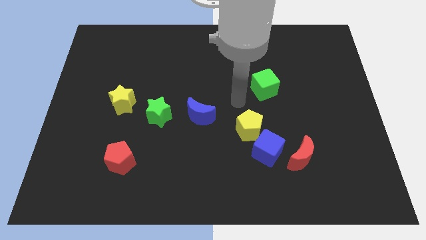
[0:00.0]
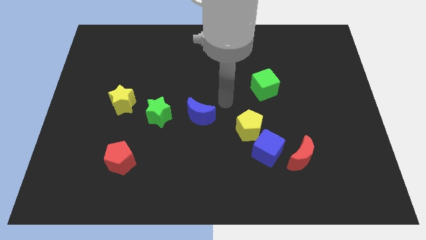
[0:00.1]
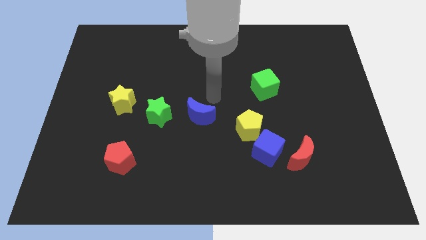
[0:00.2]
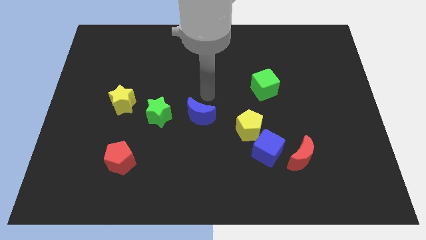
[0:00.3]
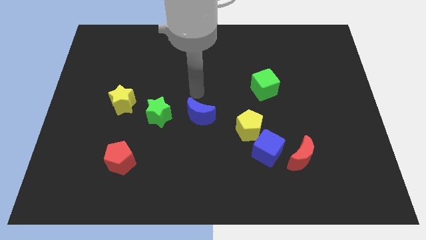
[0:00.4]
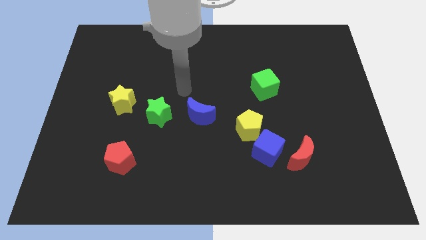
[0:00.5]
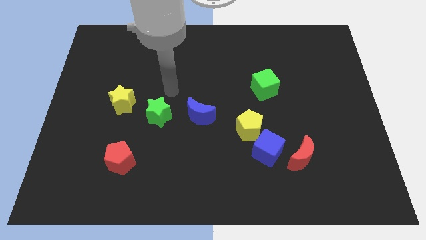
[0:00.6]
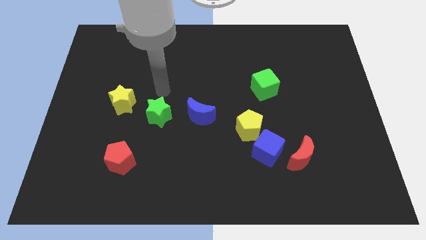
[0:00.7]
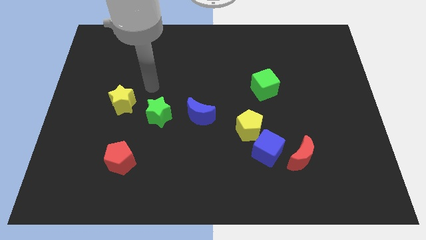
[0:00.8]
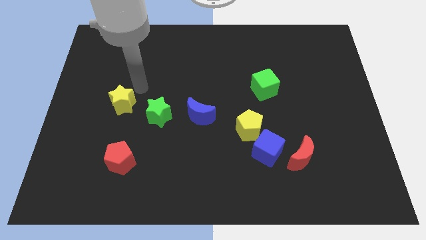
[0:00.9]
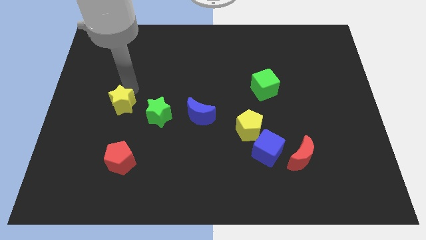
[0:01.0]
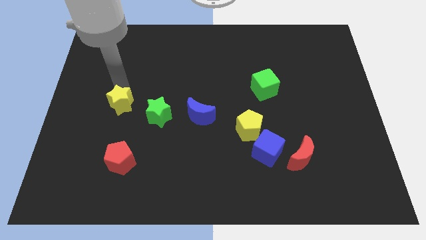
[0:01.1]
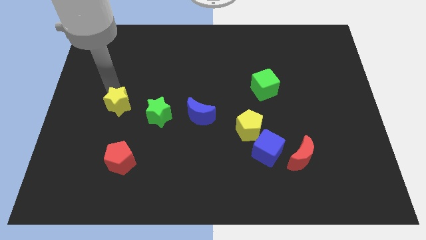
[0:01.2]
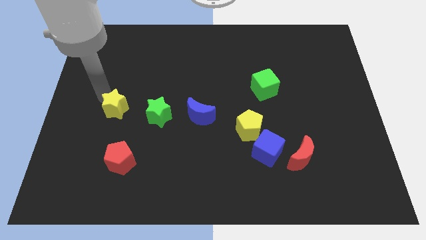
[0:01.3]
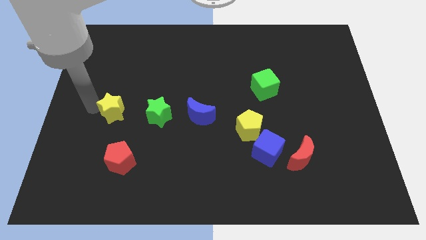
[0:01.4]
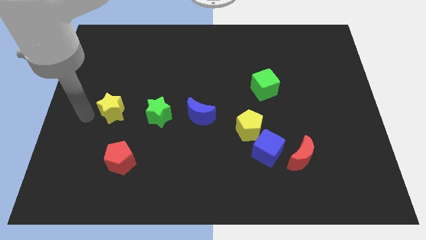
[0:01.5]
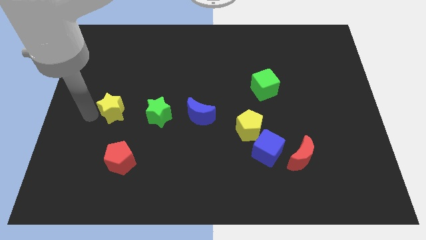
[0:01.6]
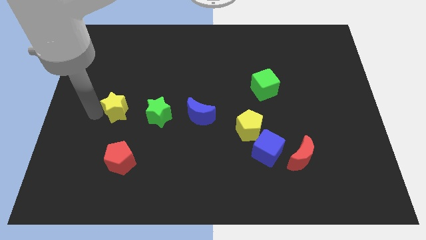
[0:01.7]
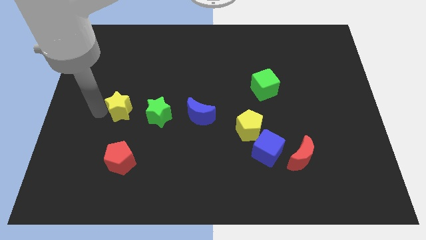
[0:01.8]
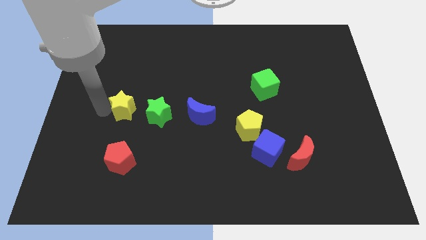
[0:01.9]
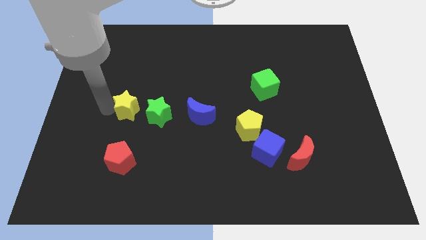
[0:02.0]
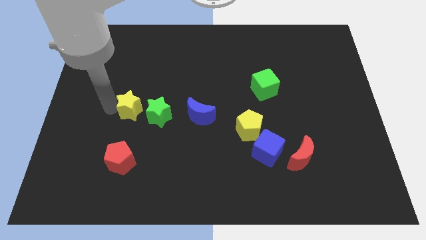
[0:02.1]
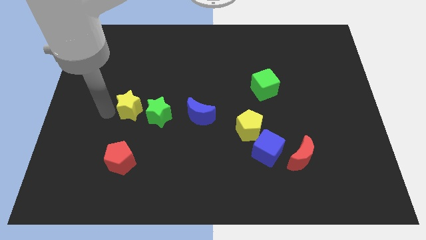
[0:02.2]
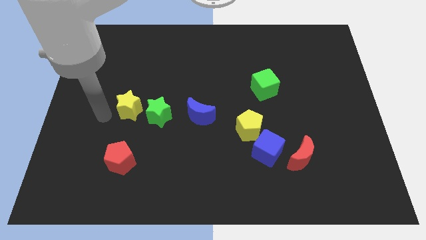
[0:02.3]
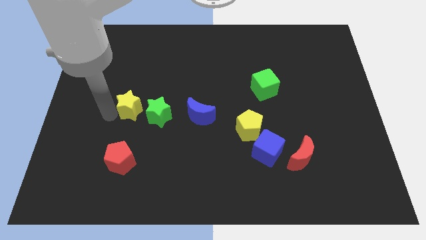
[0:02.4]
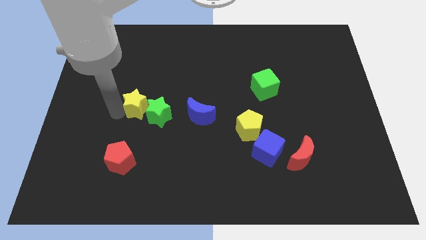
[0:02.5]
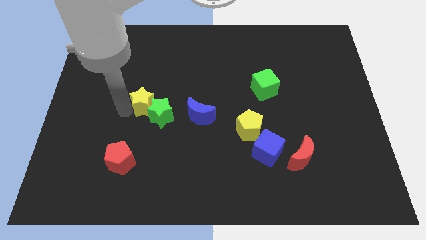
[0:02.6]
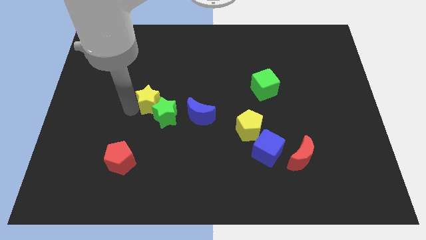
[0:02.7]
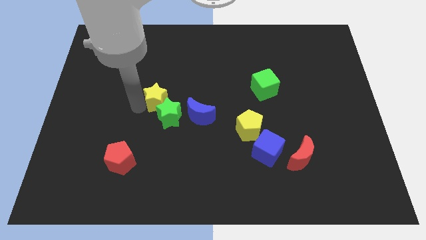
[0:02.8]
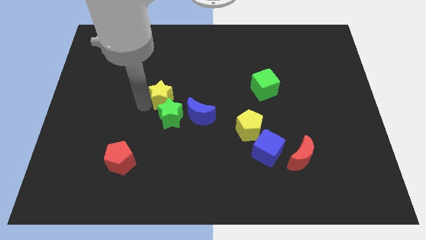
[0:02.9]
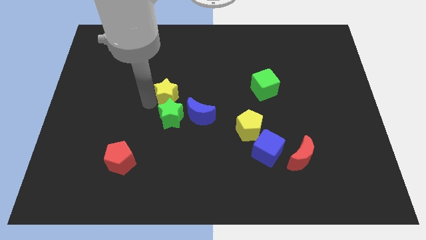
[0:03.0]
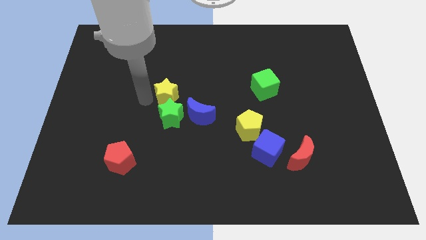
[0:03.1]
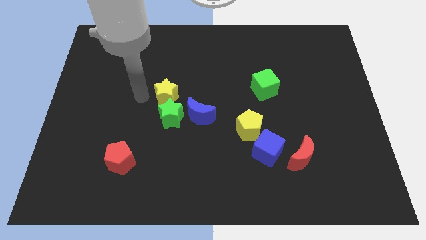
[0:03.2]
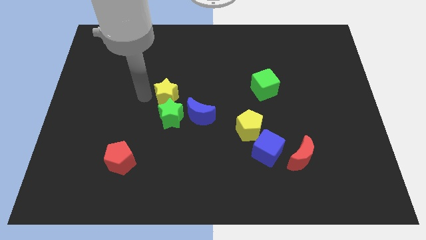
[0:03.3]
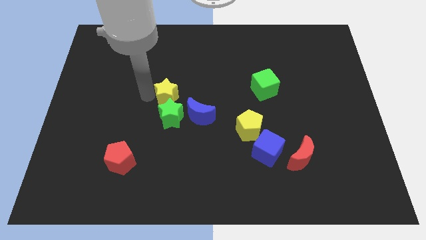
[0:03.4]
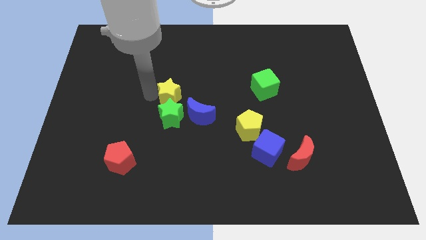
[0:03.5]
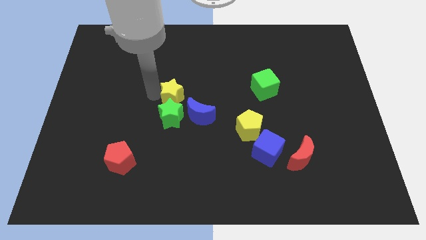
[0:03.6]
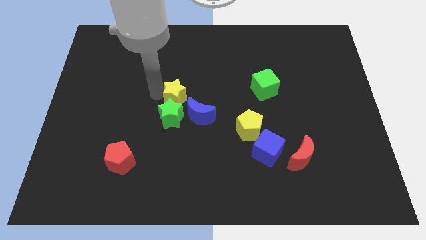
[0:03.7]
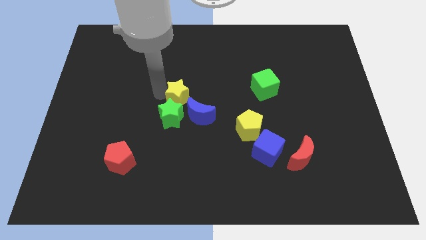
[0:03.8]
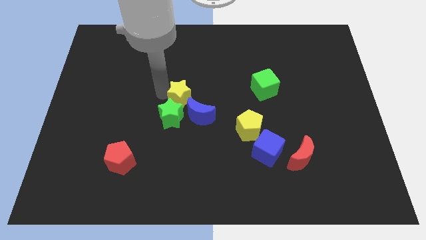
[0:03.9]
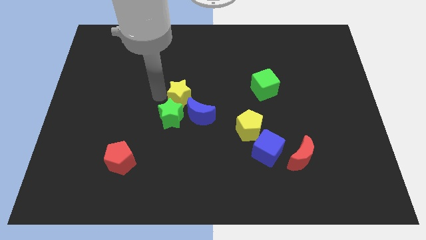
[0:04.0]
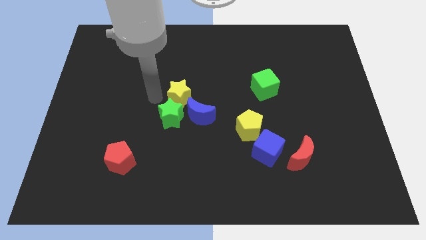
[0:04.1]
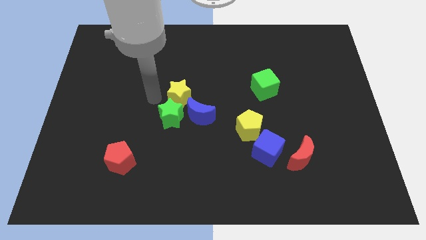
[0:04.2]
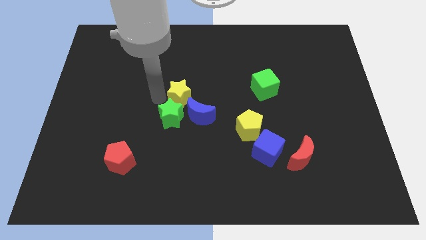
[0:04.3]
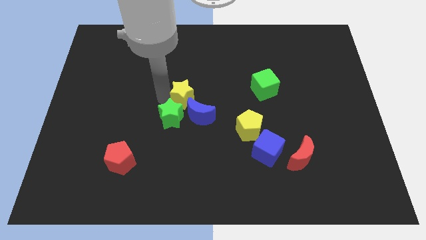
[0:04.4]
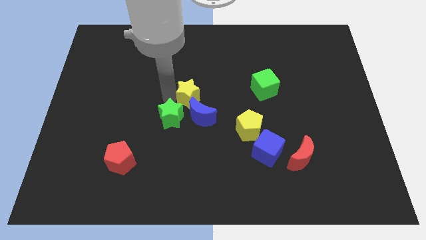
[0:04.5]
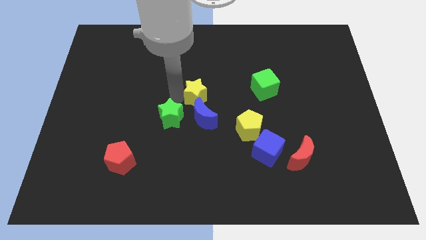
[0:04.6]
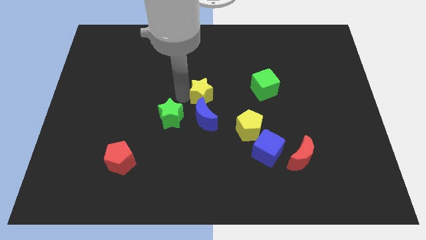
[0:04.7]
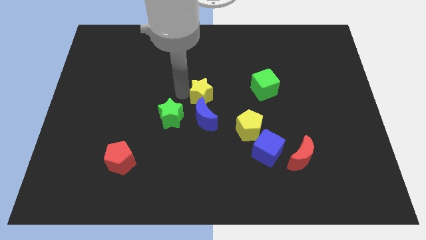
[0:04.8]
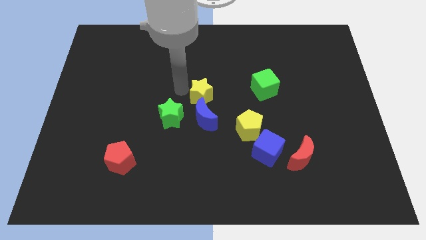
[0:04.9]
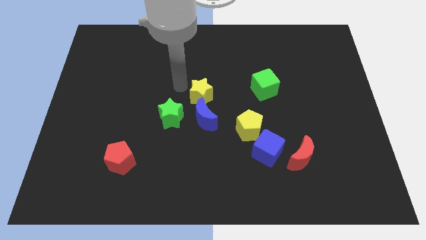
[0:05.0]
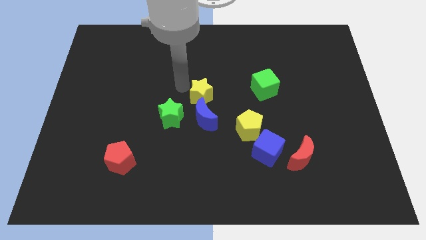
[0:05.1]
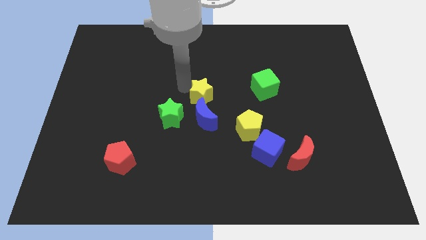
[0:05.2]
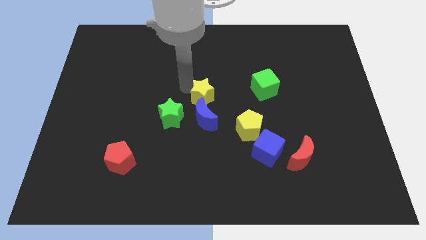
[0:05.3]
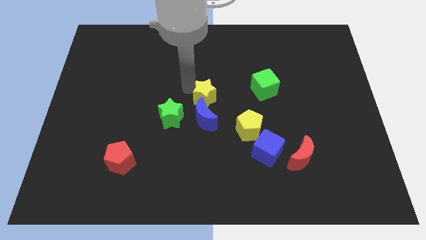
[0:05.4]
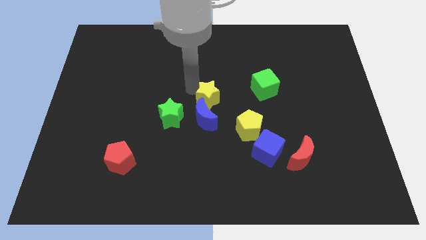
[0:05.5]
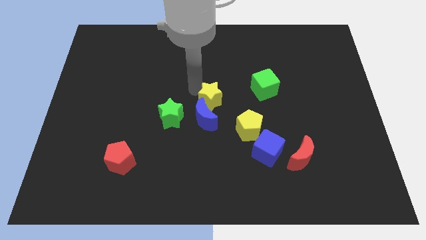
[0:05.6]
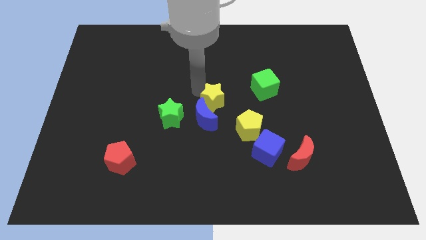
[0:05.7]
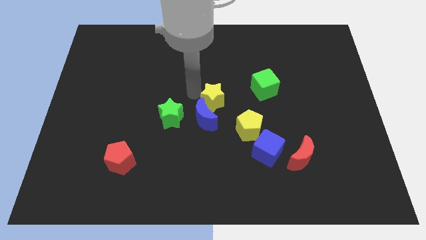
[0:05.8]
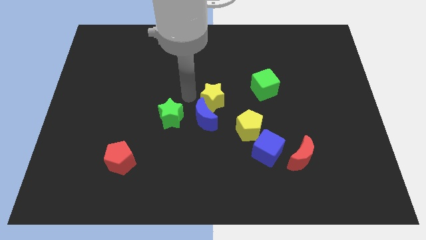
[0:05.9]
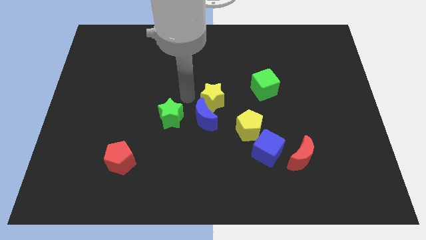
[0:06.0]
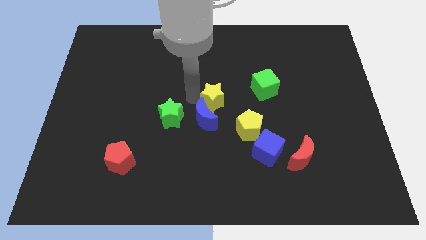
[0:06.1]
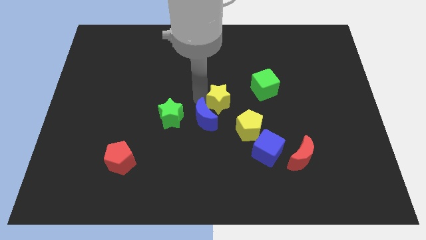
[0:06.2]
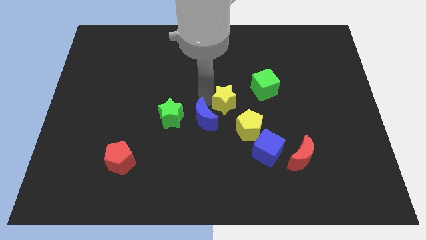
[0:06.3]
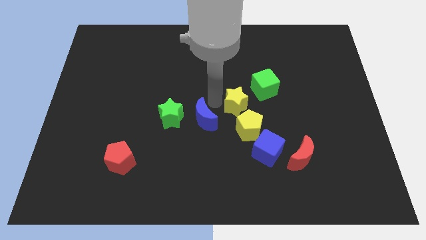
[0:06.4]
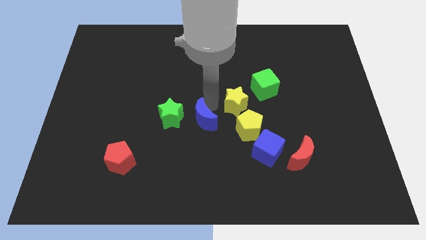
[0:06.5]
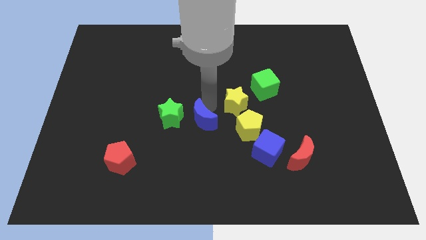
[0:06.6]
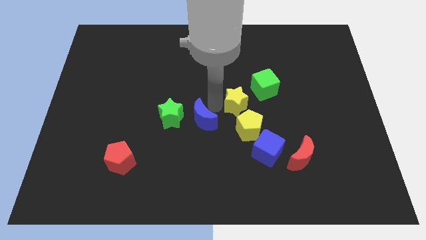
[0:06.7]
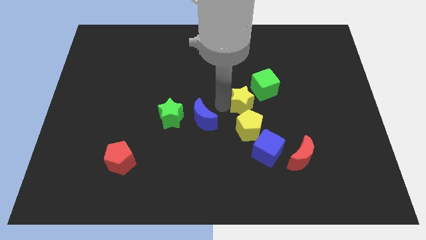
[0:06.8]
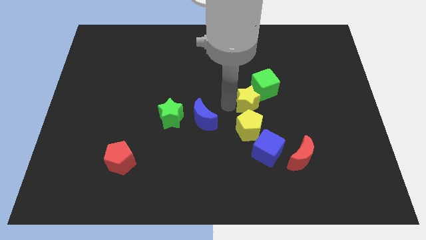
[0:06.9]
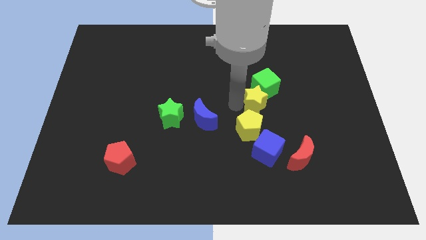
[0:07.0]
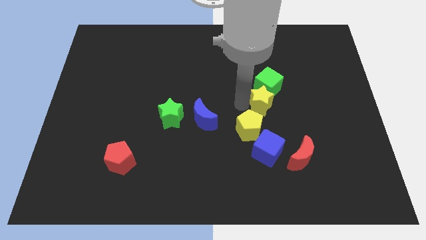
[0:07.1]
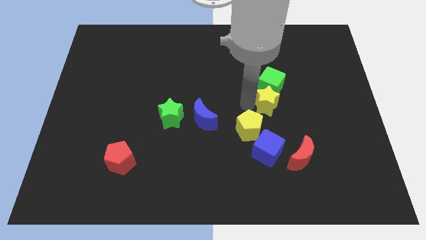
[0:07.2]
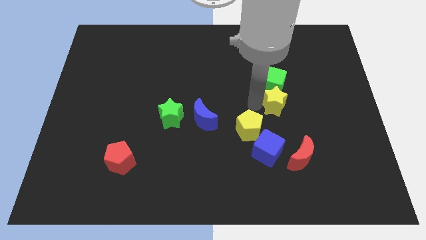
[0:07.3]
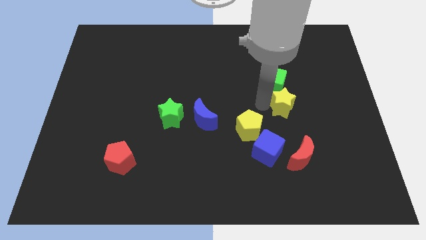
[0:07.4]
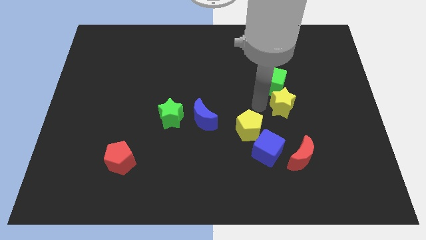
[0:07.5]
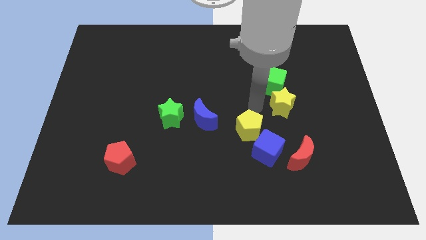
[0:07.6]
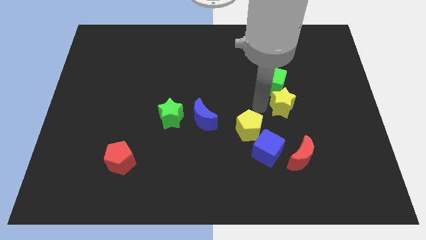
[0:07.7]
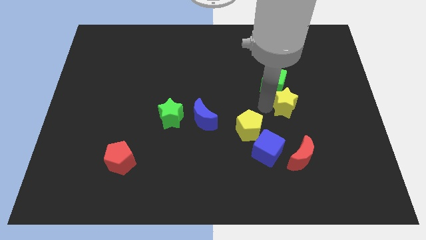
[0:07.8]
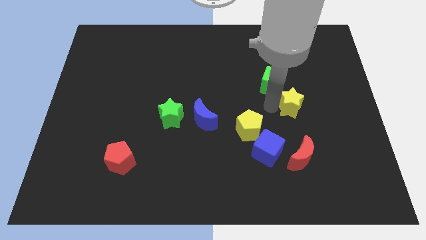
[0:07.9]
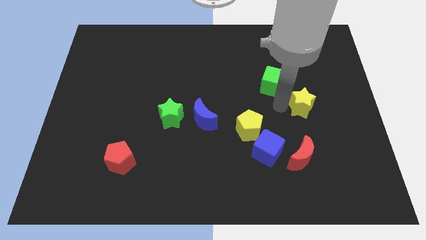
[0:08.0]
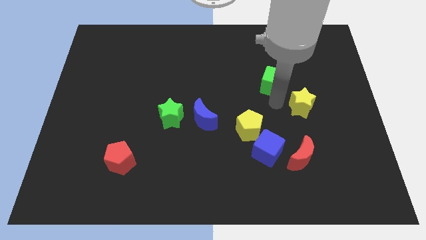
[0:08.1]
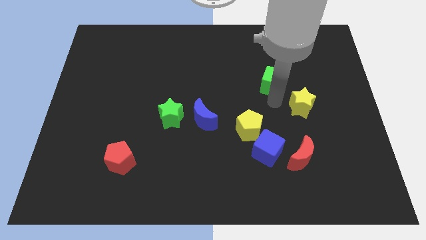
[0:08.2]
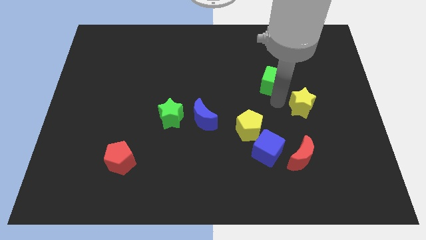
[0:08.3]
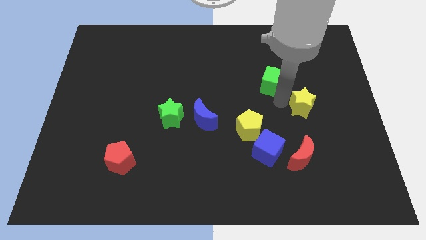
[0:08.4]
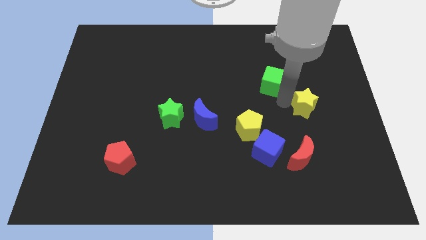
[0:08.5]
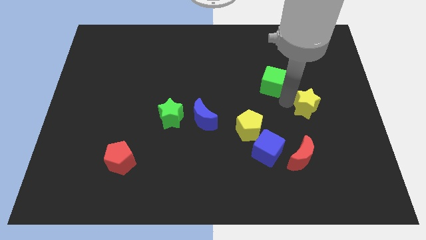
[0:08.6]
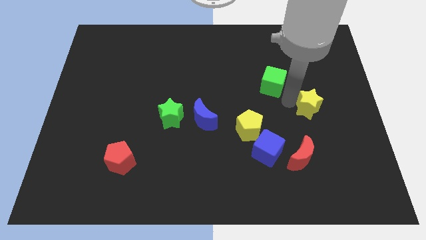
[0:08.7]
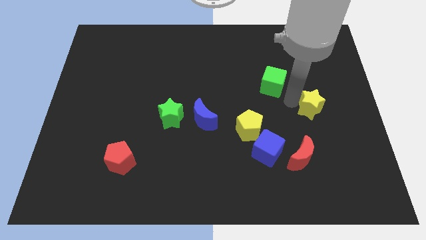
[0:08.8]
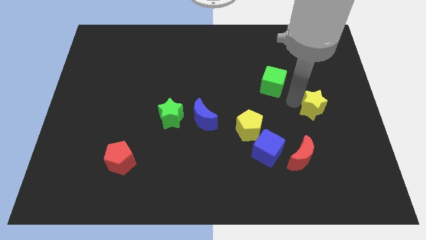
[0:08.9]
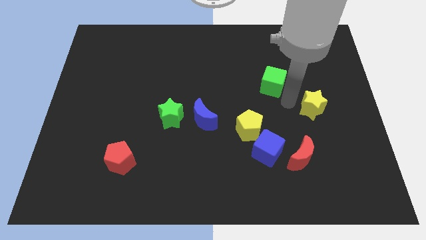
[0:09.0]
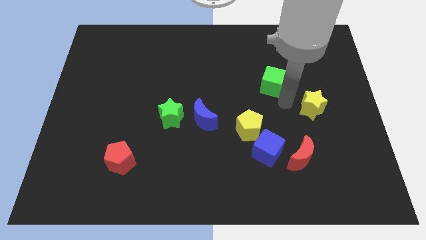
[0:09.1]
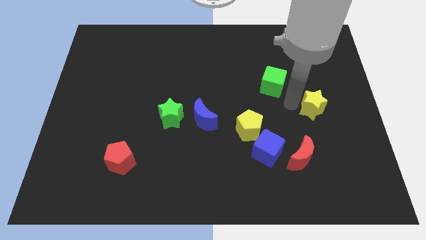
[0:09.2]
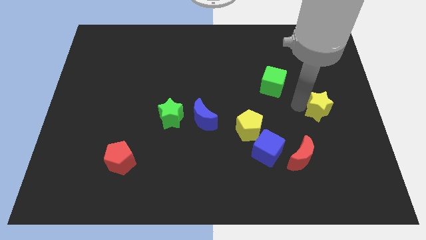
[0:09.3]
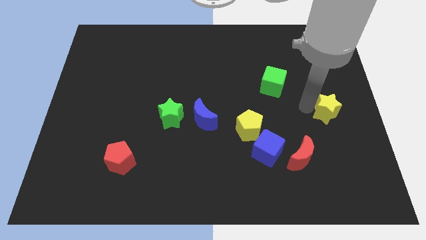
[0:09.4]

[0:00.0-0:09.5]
move the yellow star to the center right
